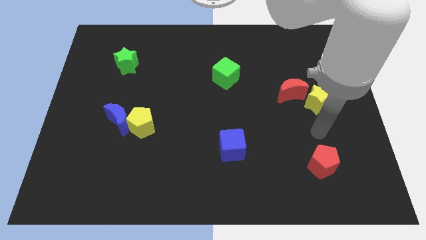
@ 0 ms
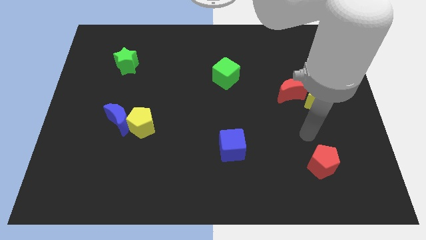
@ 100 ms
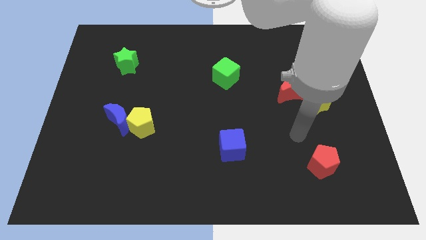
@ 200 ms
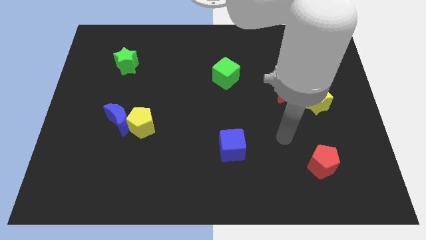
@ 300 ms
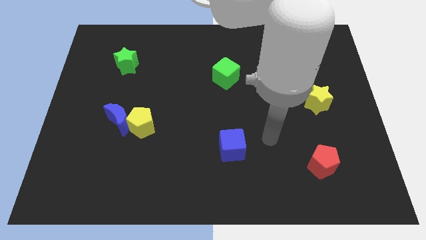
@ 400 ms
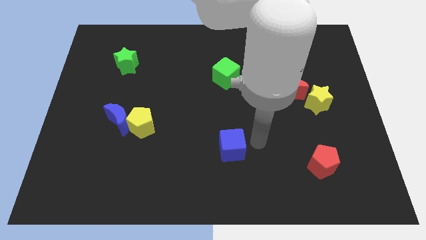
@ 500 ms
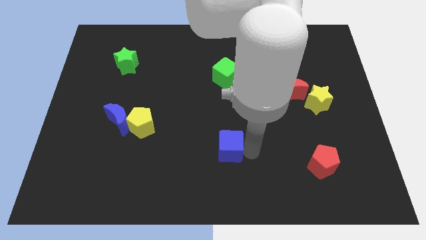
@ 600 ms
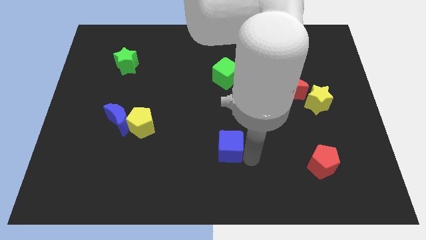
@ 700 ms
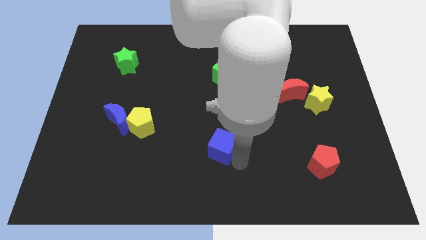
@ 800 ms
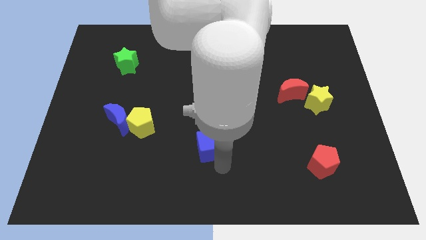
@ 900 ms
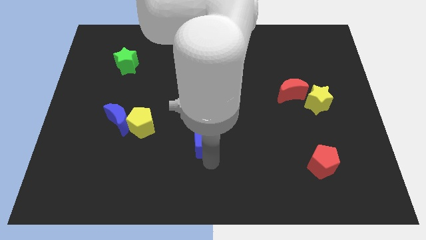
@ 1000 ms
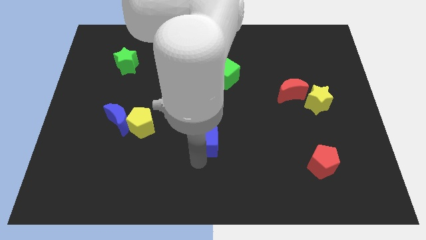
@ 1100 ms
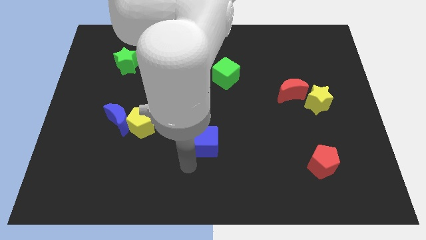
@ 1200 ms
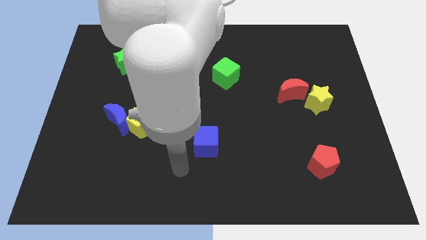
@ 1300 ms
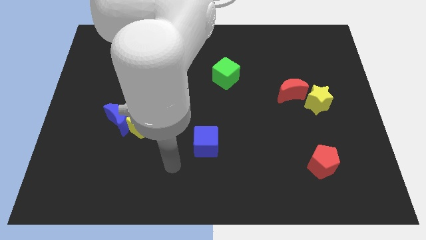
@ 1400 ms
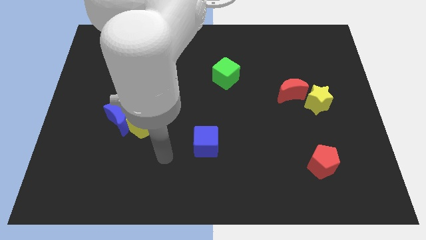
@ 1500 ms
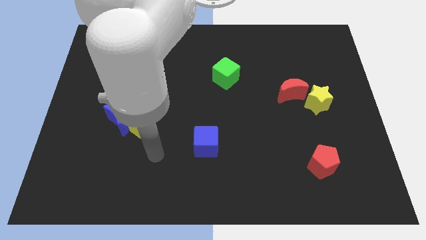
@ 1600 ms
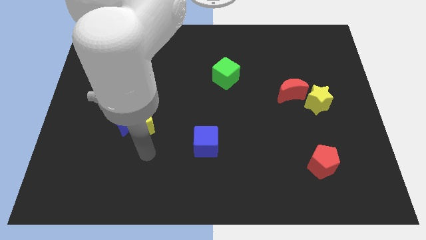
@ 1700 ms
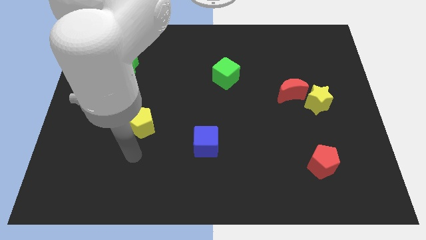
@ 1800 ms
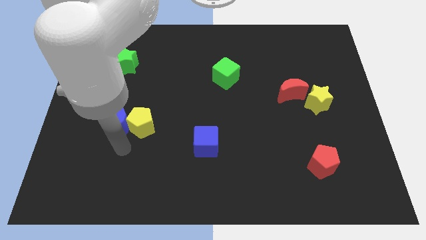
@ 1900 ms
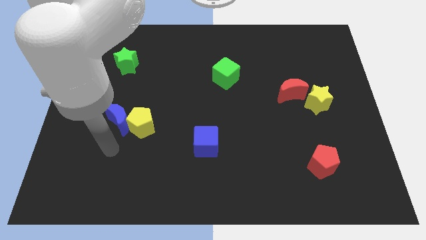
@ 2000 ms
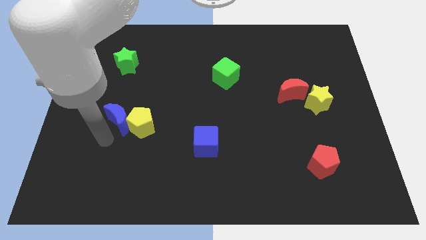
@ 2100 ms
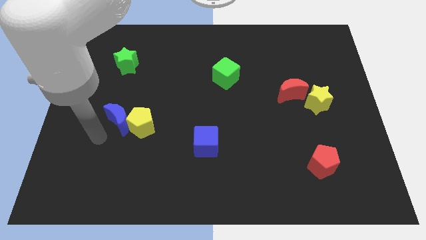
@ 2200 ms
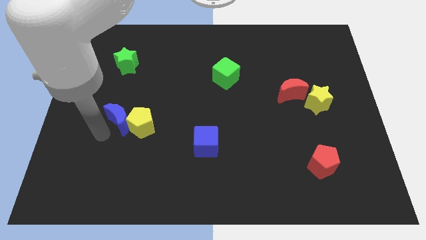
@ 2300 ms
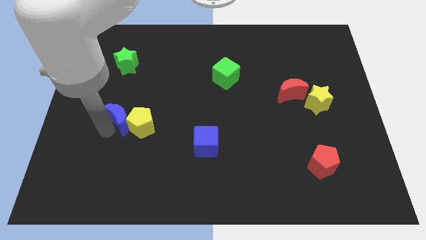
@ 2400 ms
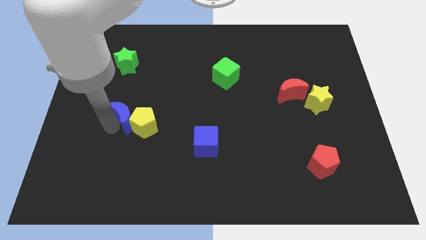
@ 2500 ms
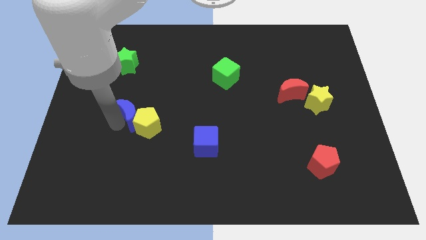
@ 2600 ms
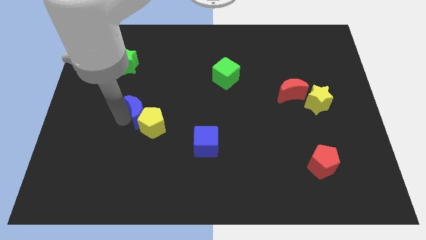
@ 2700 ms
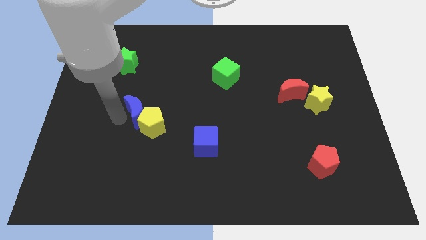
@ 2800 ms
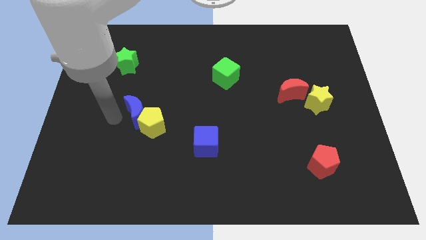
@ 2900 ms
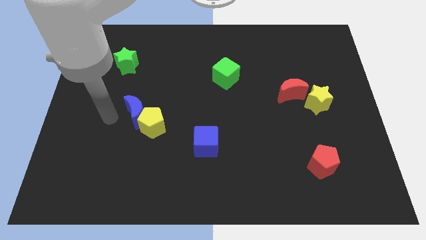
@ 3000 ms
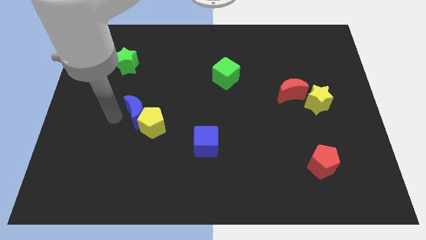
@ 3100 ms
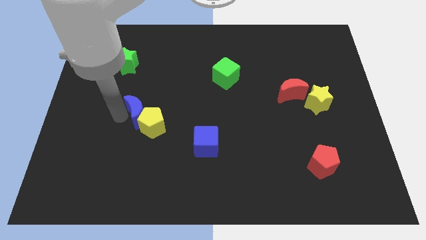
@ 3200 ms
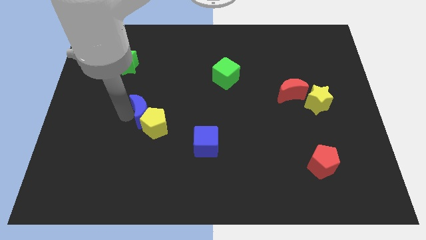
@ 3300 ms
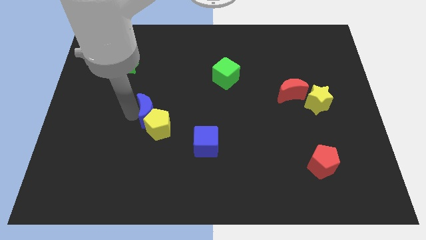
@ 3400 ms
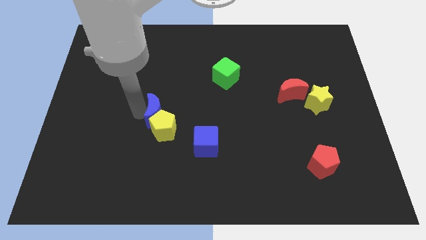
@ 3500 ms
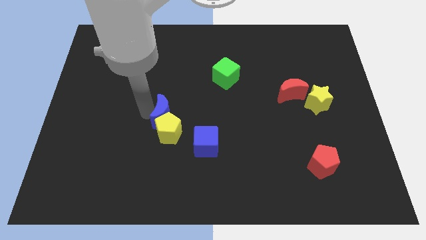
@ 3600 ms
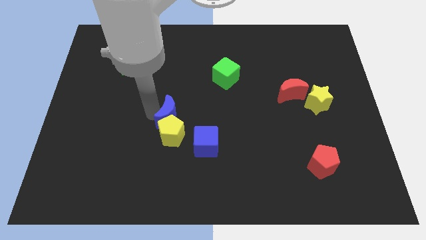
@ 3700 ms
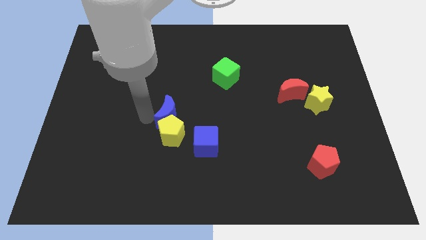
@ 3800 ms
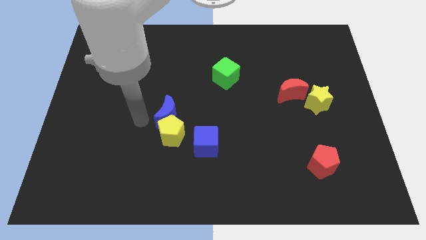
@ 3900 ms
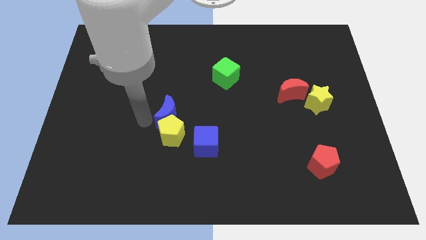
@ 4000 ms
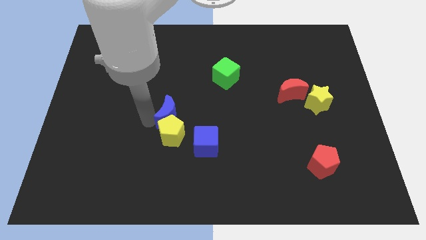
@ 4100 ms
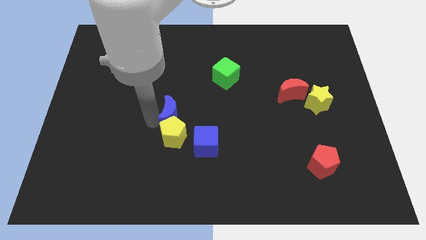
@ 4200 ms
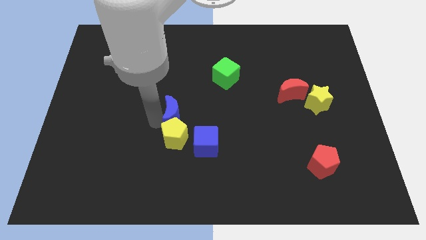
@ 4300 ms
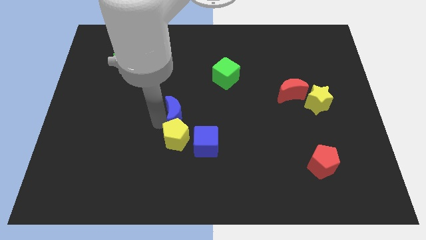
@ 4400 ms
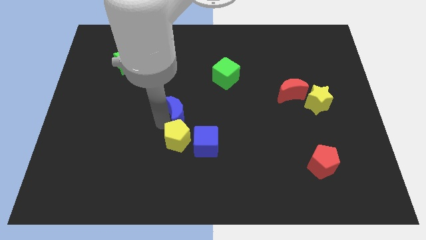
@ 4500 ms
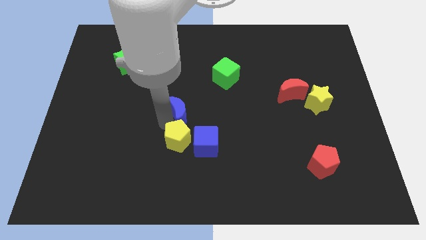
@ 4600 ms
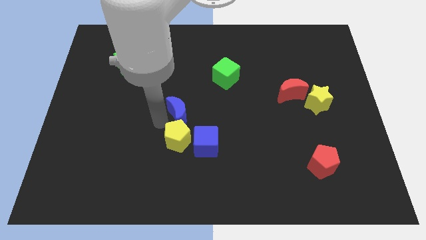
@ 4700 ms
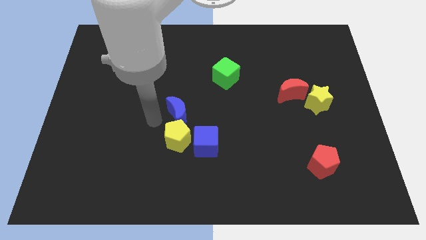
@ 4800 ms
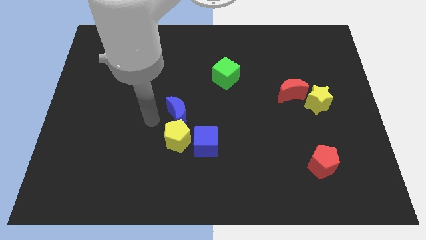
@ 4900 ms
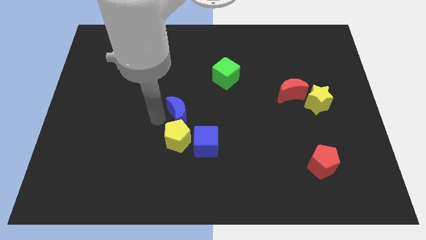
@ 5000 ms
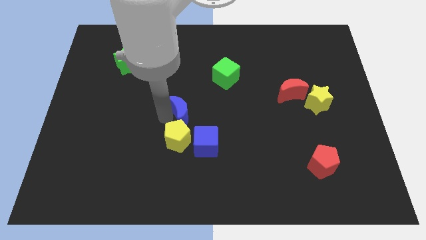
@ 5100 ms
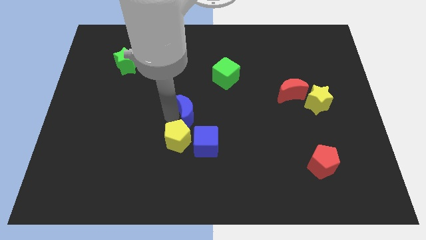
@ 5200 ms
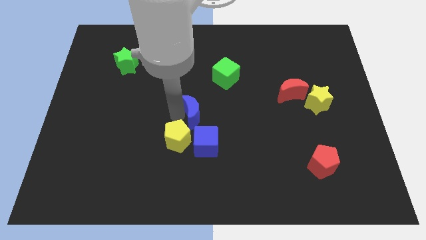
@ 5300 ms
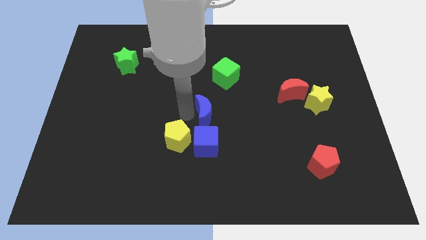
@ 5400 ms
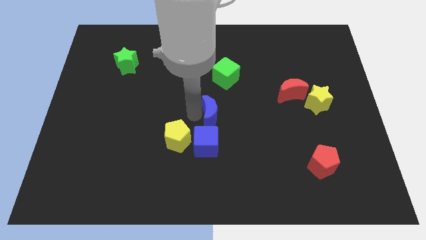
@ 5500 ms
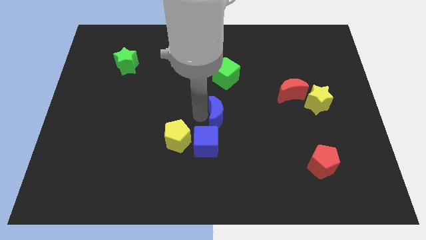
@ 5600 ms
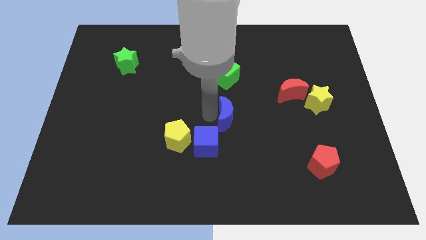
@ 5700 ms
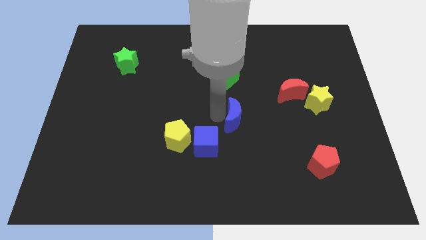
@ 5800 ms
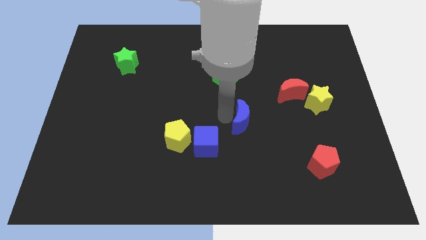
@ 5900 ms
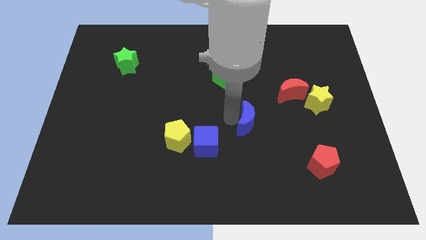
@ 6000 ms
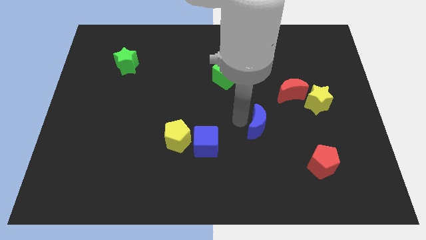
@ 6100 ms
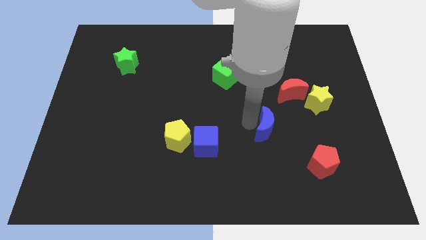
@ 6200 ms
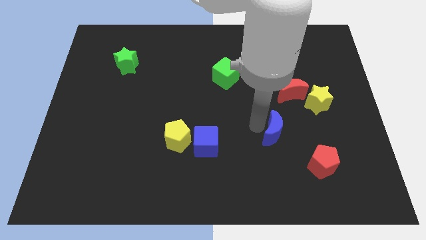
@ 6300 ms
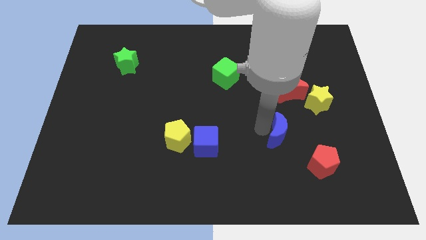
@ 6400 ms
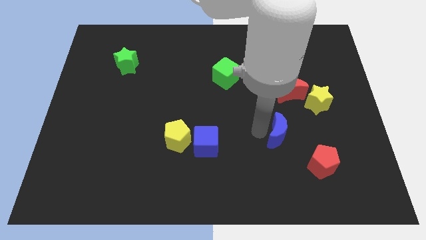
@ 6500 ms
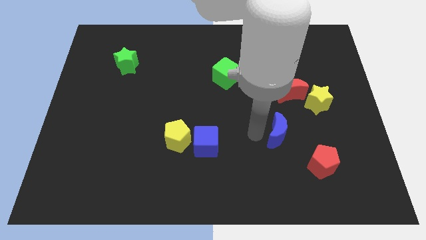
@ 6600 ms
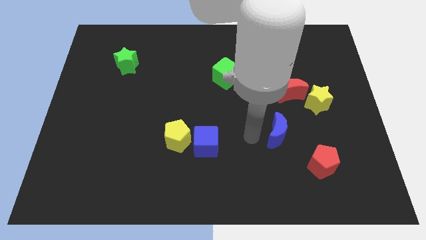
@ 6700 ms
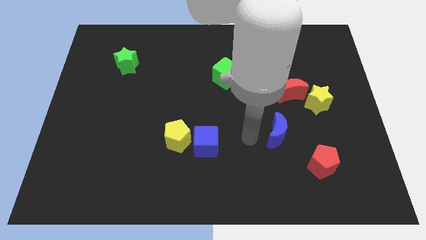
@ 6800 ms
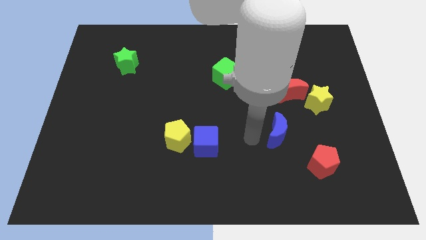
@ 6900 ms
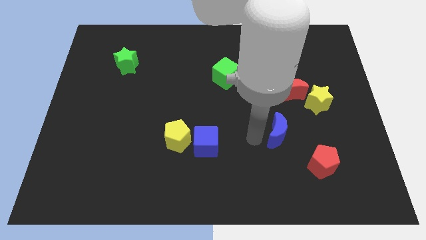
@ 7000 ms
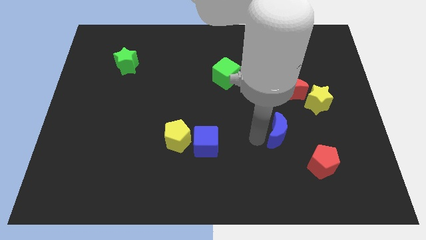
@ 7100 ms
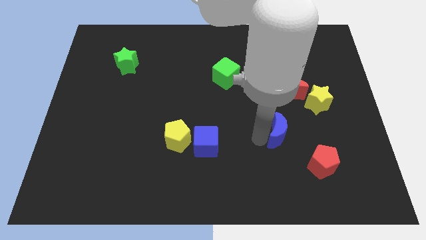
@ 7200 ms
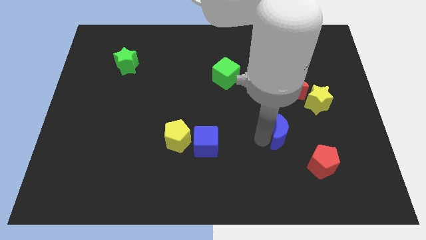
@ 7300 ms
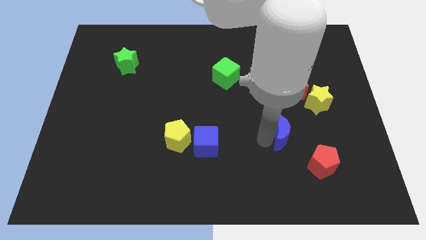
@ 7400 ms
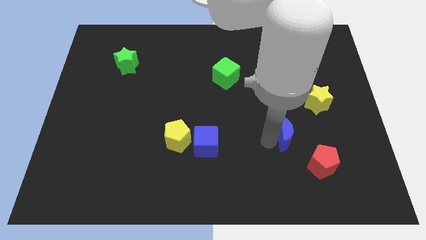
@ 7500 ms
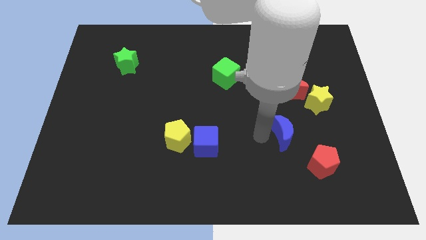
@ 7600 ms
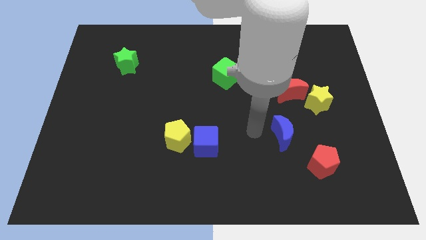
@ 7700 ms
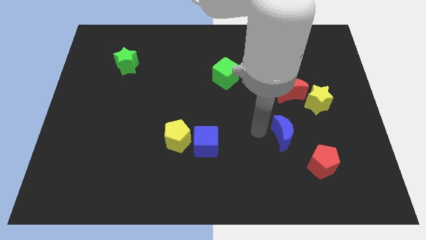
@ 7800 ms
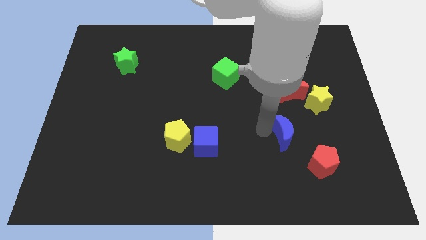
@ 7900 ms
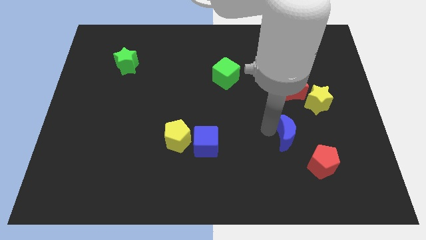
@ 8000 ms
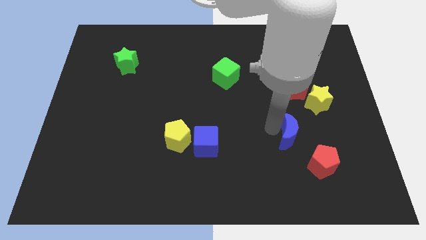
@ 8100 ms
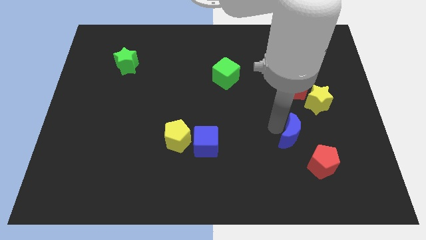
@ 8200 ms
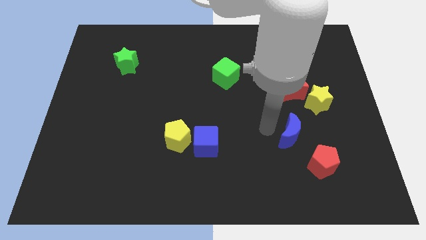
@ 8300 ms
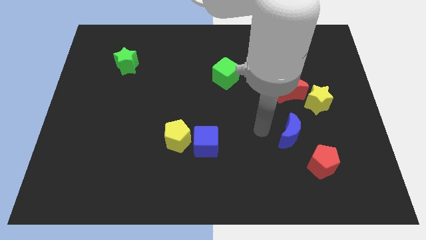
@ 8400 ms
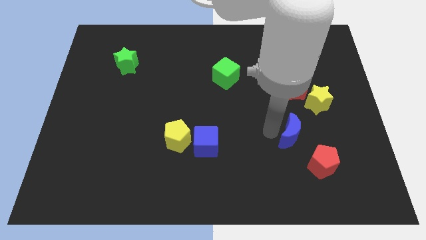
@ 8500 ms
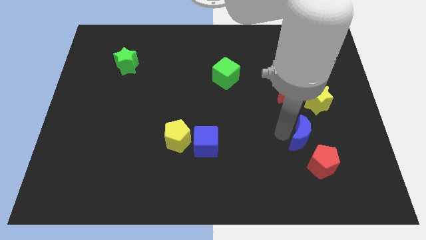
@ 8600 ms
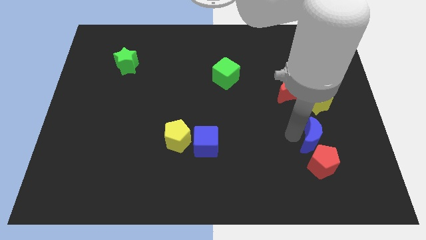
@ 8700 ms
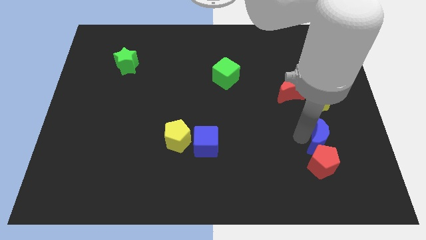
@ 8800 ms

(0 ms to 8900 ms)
slide the blue moon diagonally up and to the right of the red pentagon
